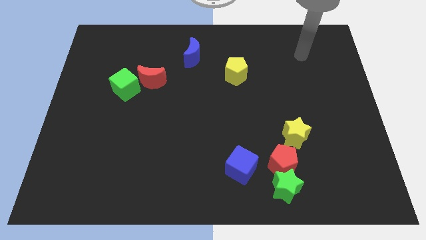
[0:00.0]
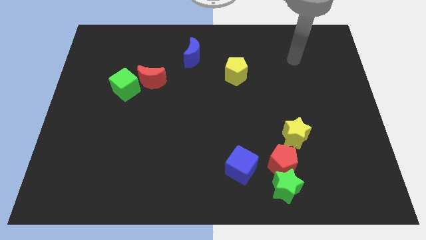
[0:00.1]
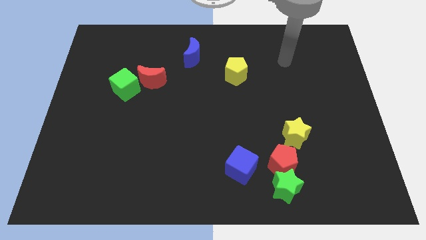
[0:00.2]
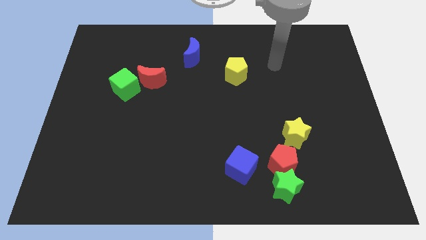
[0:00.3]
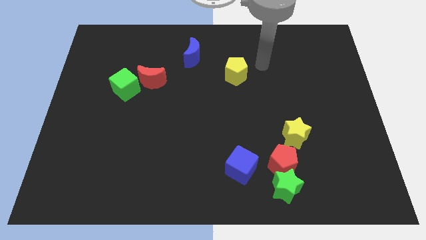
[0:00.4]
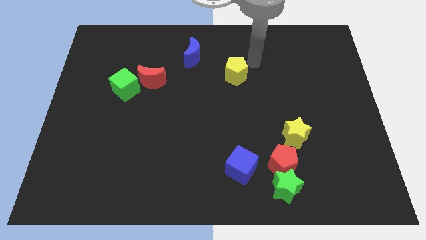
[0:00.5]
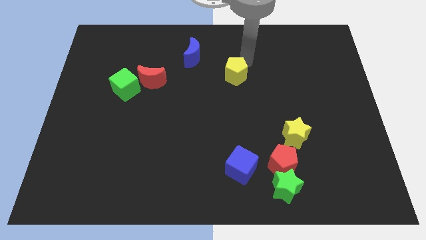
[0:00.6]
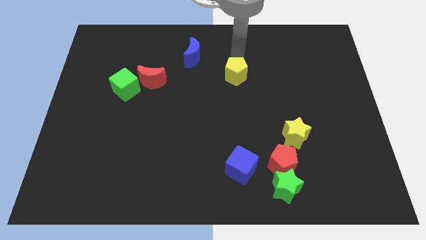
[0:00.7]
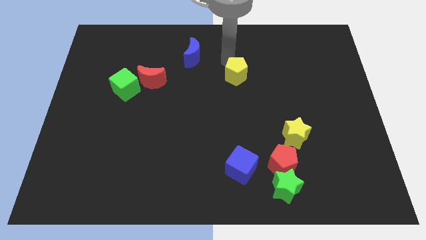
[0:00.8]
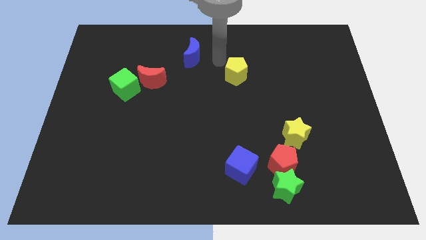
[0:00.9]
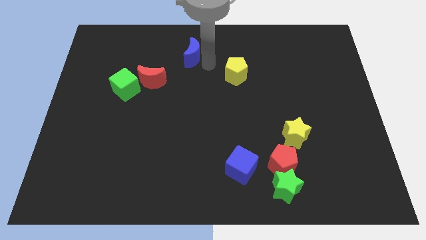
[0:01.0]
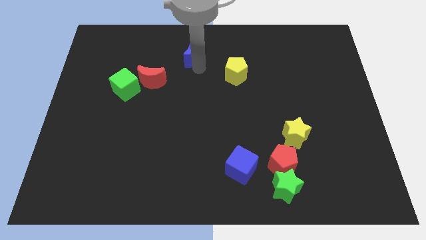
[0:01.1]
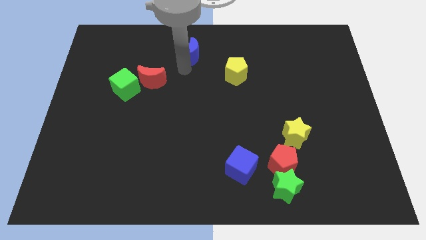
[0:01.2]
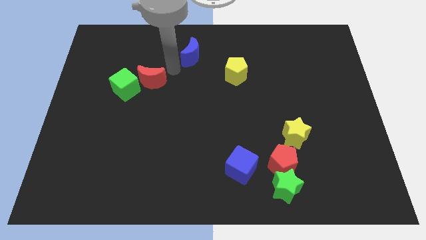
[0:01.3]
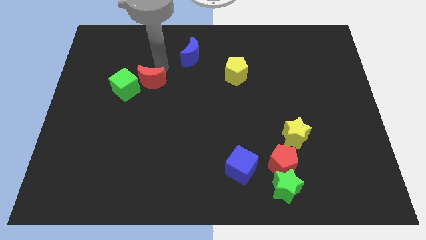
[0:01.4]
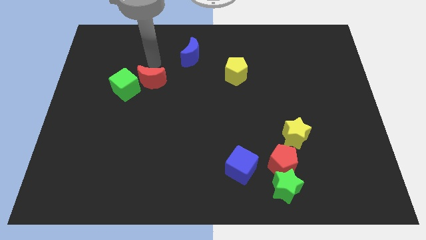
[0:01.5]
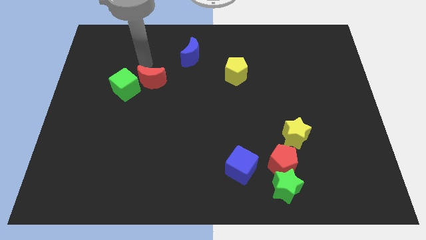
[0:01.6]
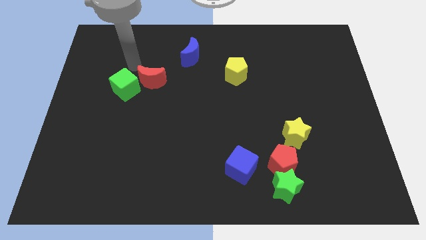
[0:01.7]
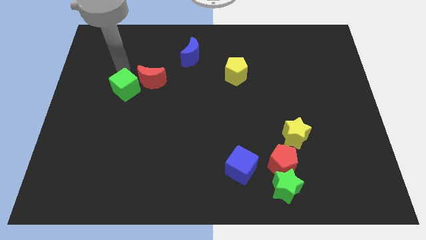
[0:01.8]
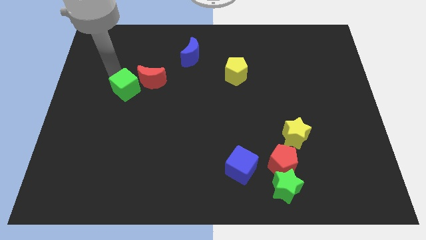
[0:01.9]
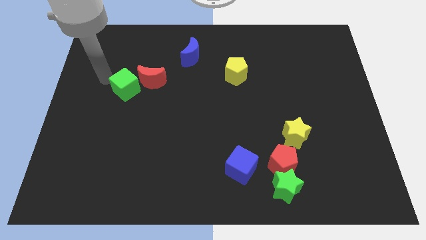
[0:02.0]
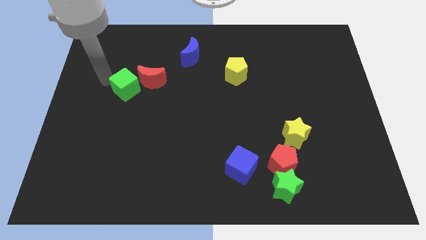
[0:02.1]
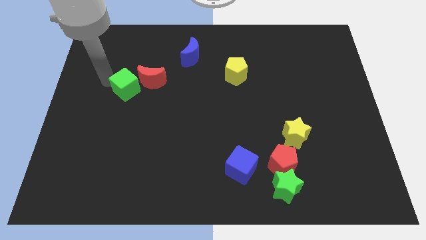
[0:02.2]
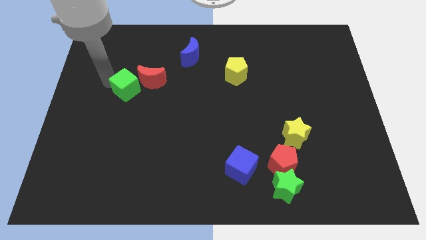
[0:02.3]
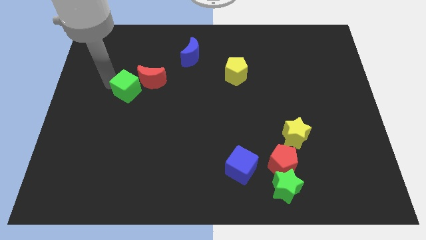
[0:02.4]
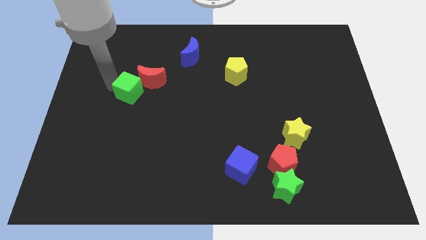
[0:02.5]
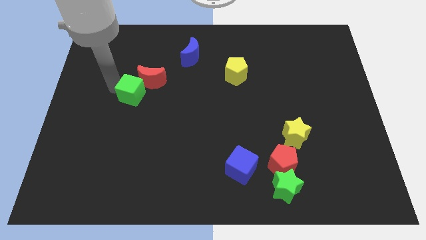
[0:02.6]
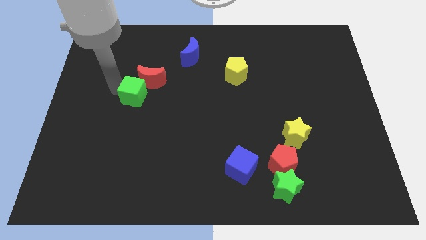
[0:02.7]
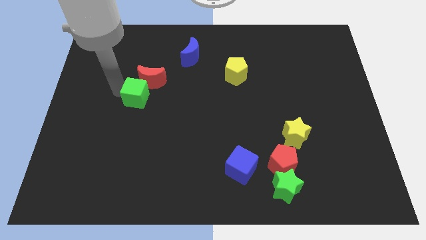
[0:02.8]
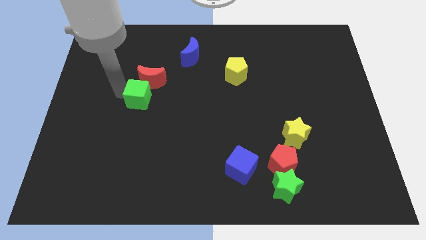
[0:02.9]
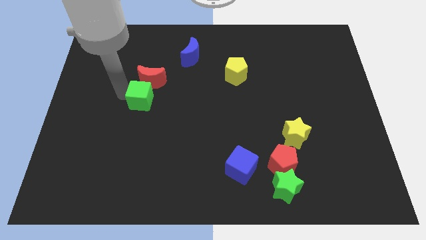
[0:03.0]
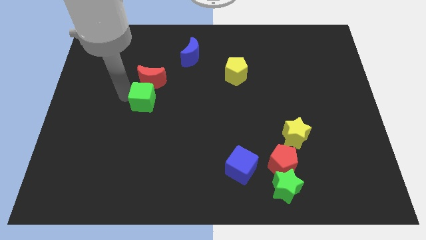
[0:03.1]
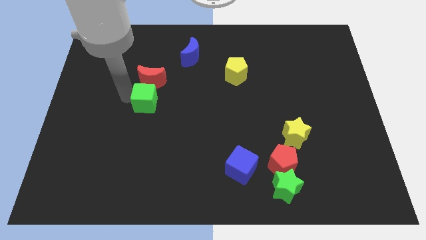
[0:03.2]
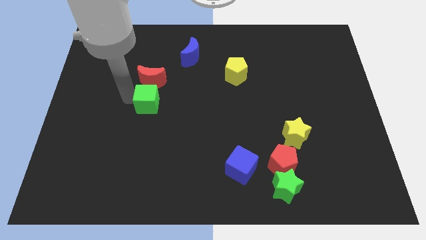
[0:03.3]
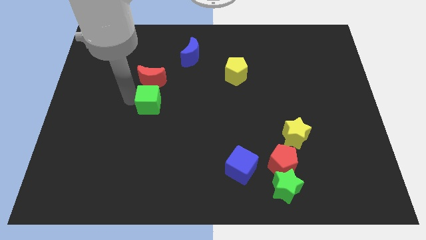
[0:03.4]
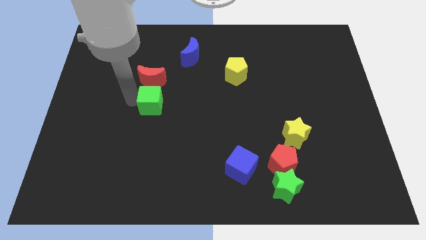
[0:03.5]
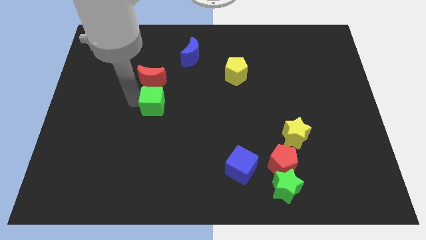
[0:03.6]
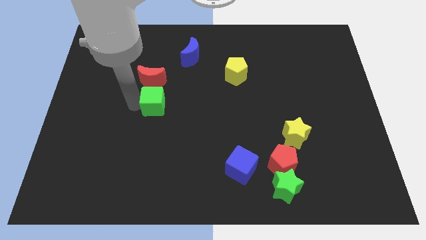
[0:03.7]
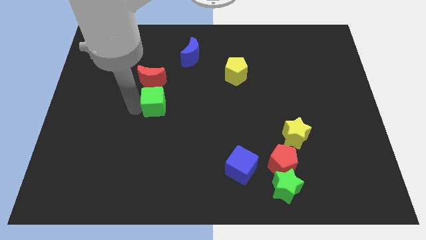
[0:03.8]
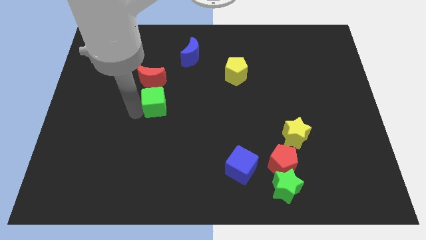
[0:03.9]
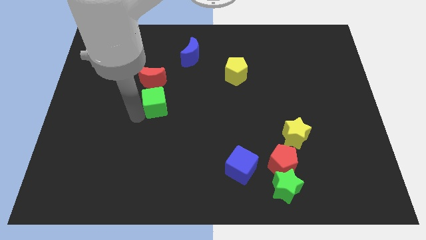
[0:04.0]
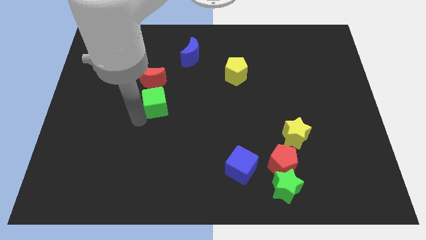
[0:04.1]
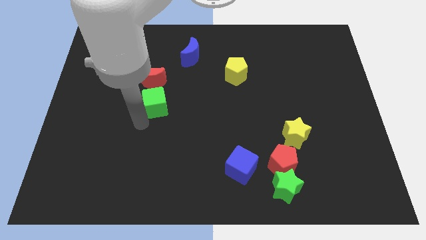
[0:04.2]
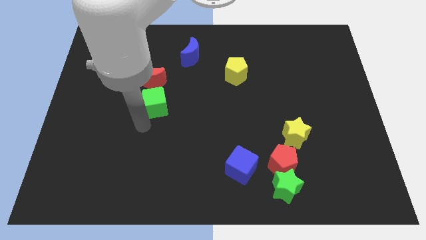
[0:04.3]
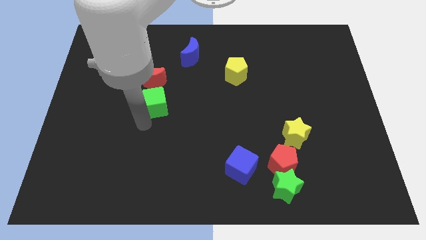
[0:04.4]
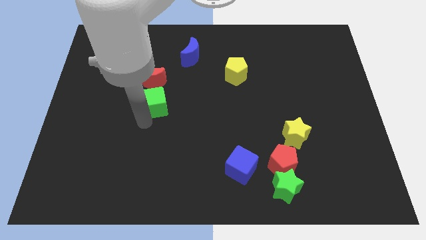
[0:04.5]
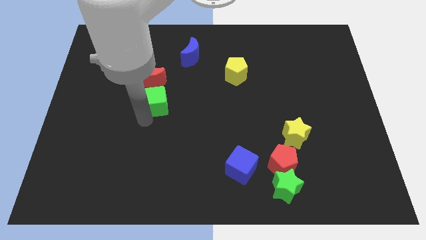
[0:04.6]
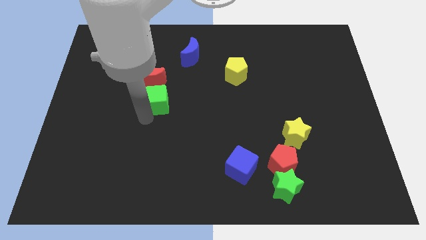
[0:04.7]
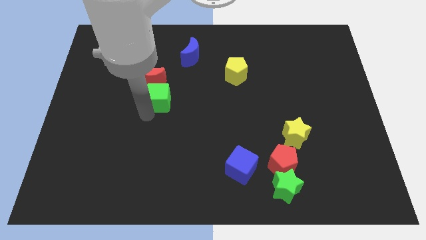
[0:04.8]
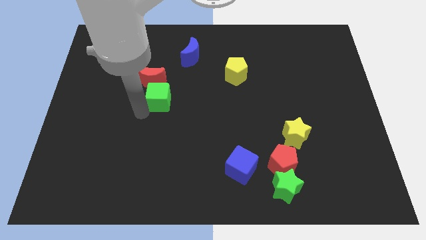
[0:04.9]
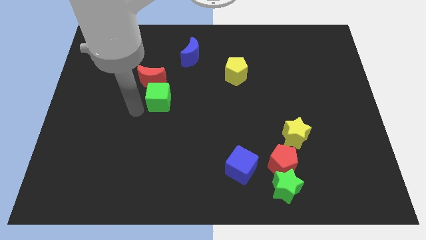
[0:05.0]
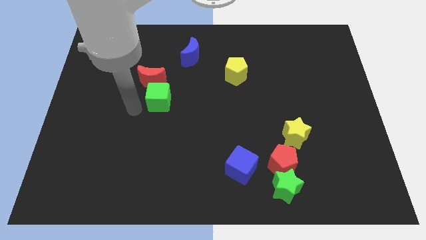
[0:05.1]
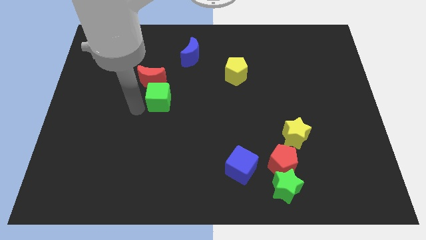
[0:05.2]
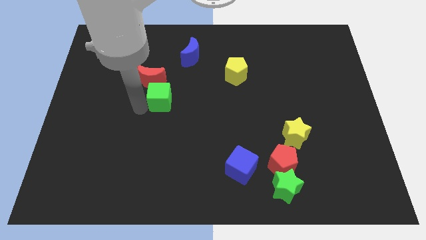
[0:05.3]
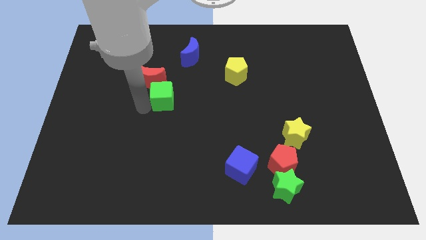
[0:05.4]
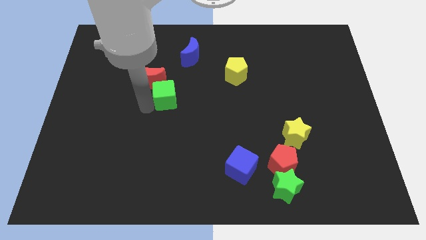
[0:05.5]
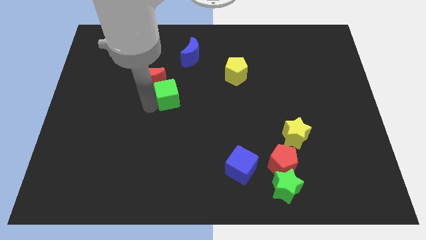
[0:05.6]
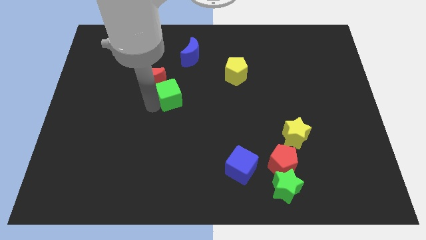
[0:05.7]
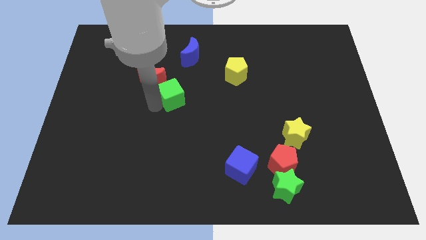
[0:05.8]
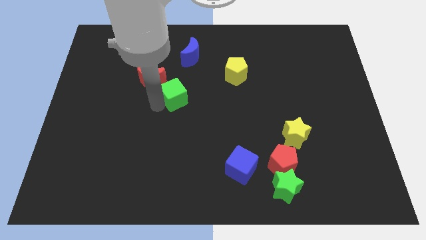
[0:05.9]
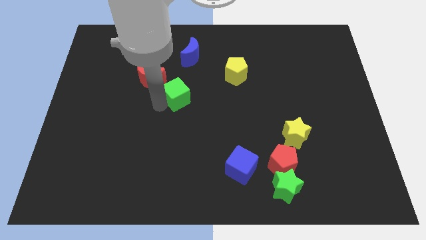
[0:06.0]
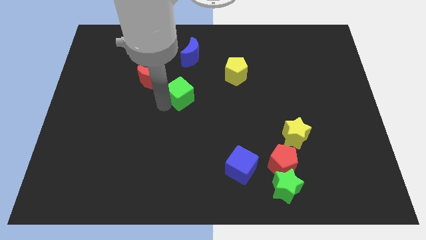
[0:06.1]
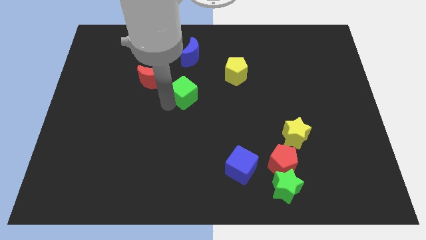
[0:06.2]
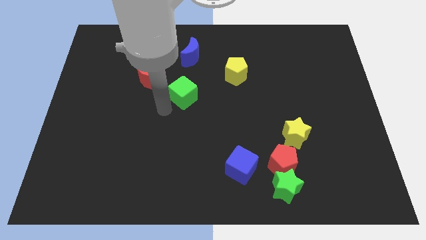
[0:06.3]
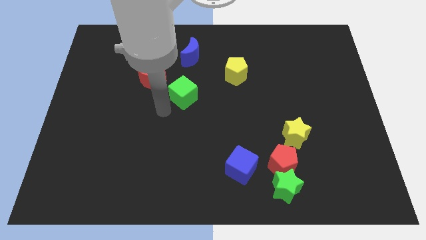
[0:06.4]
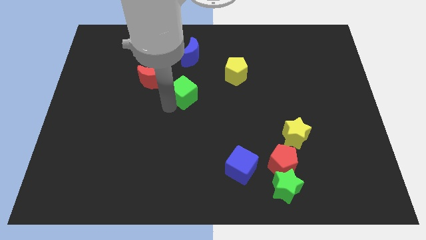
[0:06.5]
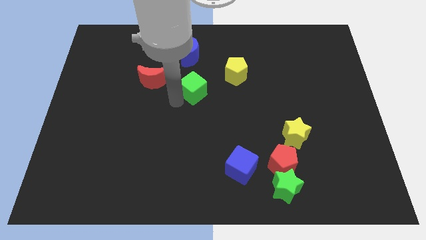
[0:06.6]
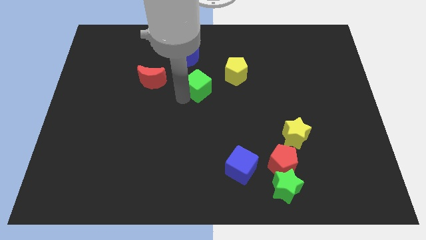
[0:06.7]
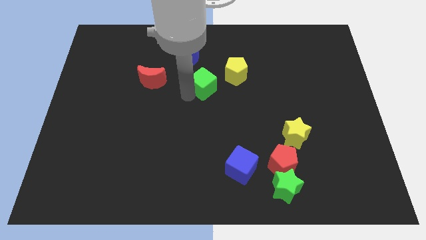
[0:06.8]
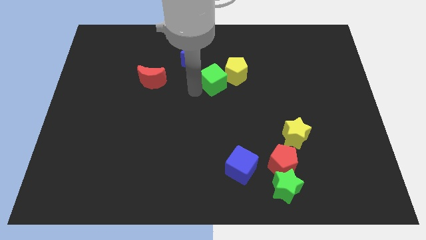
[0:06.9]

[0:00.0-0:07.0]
put the green cube next to the yellow pentagon

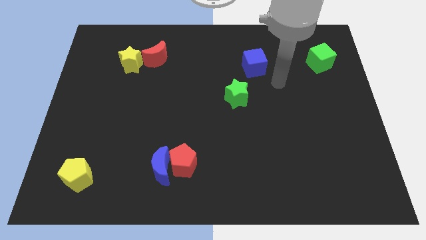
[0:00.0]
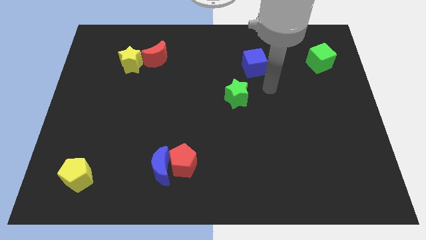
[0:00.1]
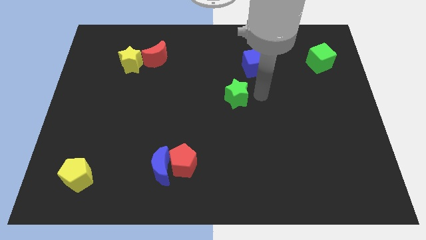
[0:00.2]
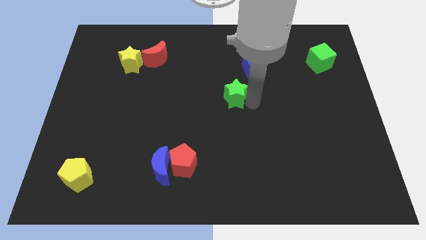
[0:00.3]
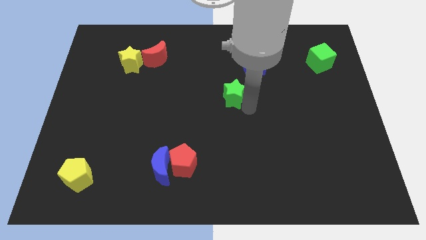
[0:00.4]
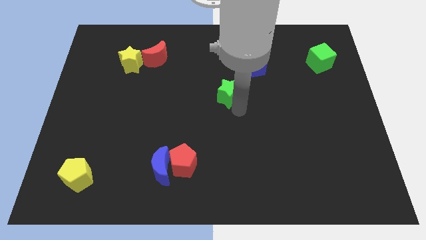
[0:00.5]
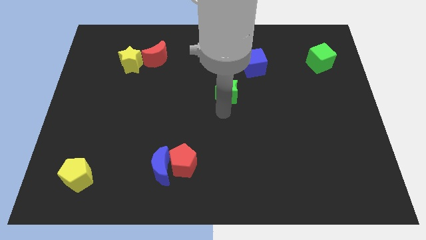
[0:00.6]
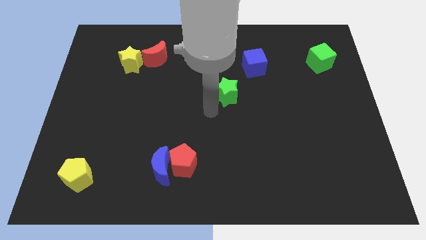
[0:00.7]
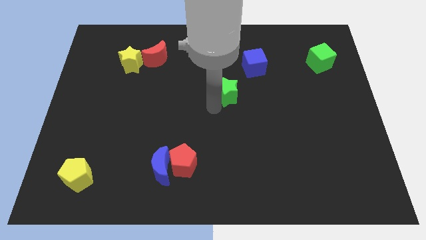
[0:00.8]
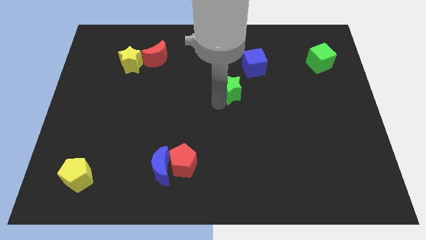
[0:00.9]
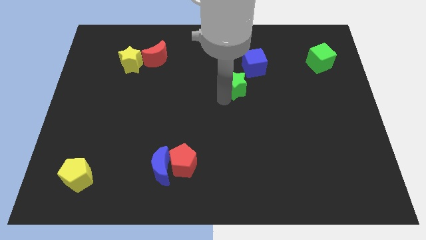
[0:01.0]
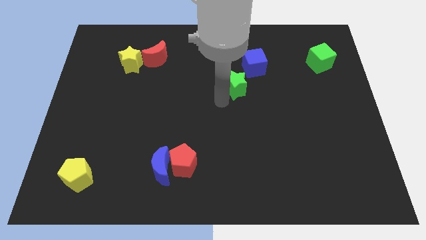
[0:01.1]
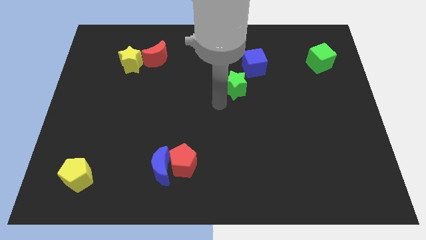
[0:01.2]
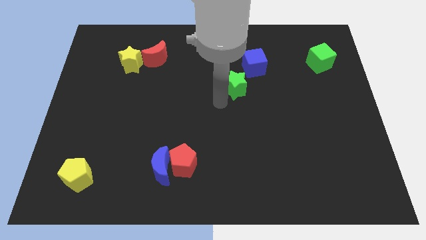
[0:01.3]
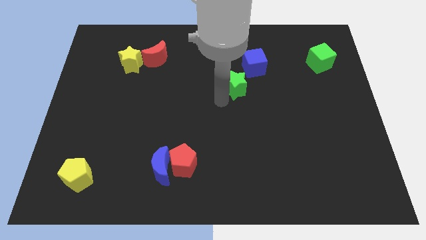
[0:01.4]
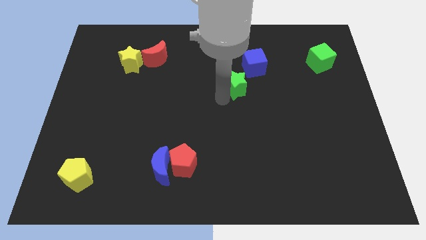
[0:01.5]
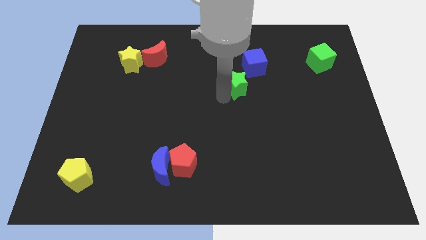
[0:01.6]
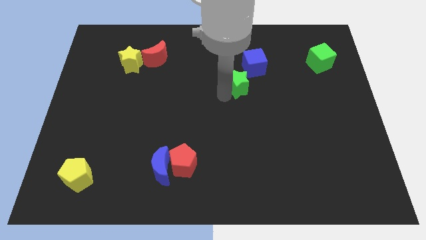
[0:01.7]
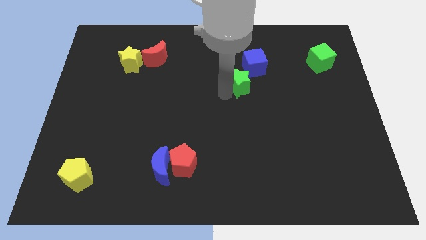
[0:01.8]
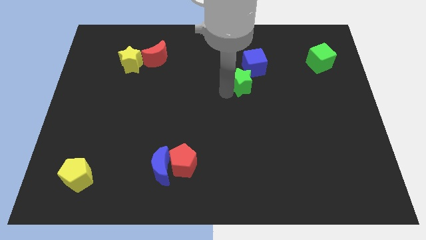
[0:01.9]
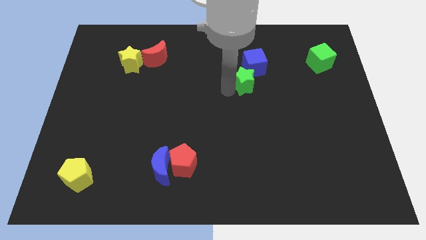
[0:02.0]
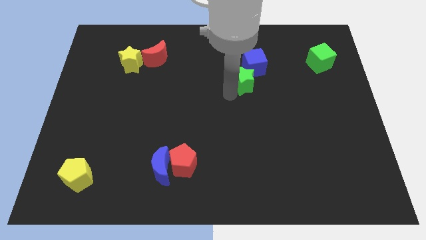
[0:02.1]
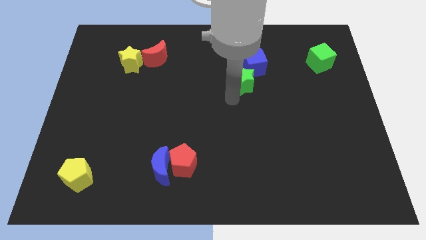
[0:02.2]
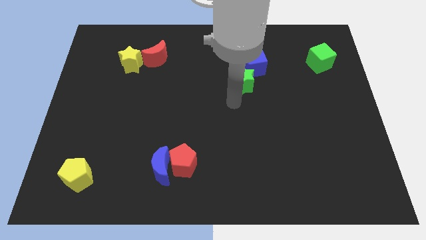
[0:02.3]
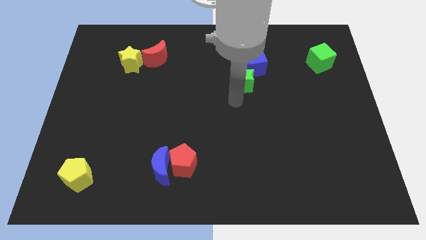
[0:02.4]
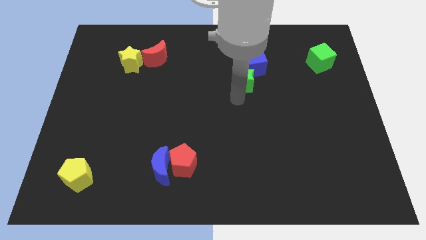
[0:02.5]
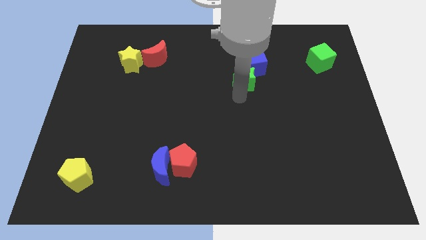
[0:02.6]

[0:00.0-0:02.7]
push the green star next to the blue cube
